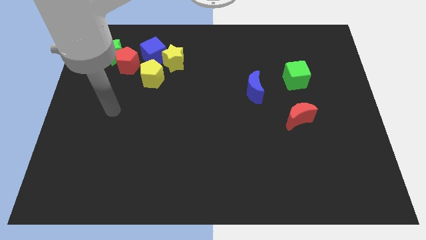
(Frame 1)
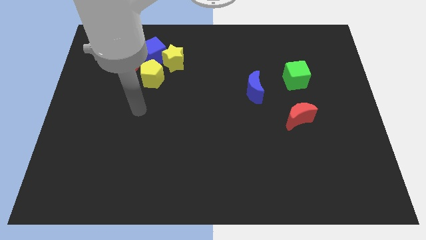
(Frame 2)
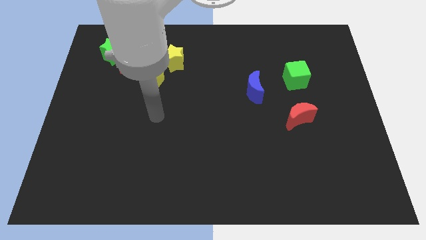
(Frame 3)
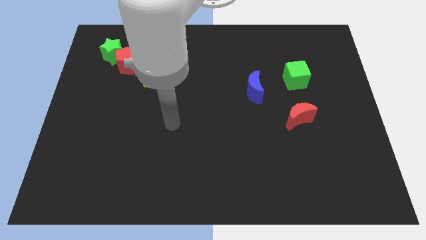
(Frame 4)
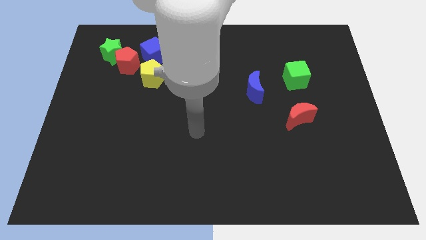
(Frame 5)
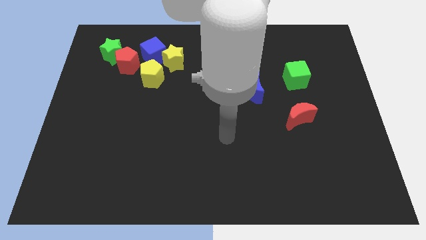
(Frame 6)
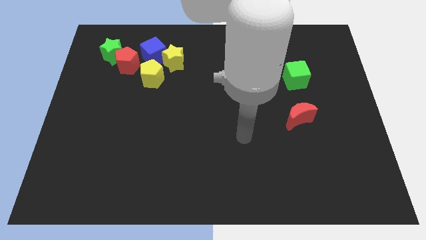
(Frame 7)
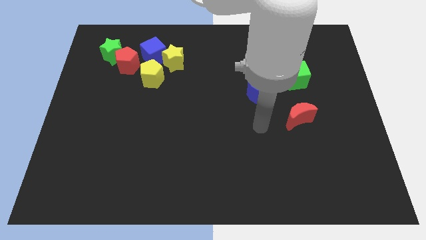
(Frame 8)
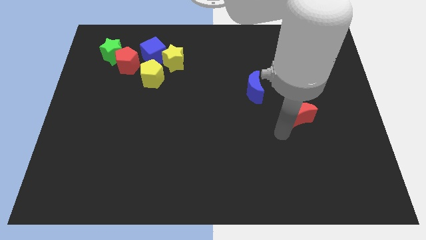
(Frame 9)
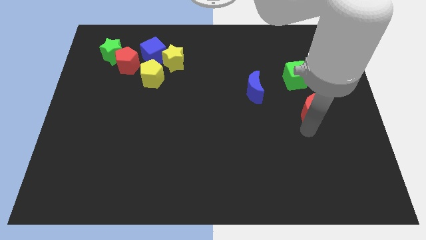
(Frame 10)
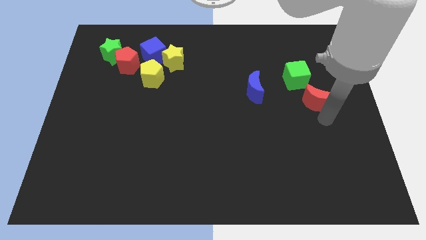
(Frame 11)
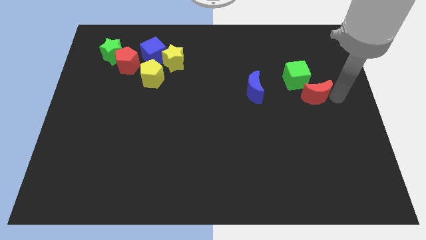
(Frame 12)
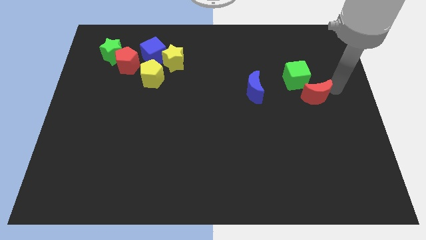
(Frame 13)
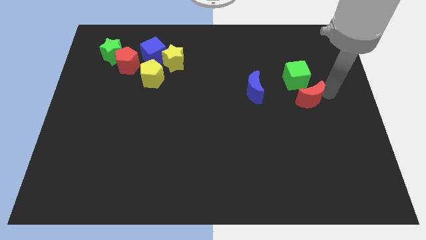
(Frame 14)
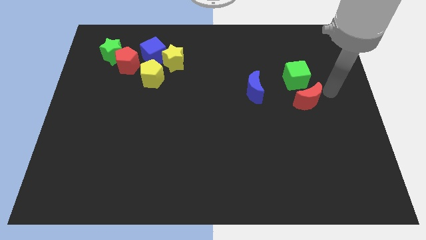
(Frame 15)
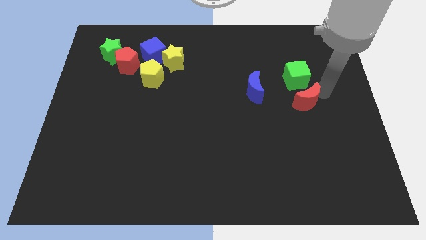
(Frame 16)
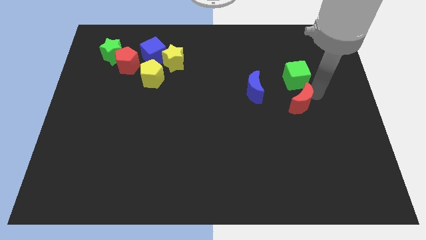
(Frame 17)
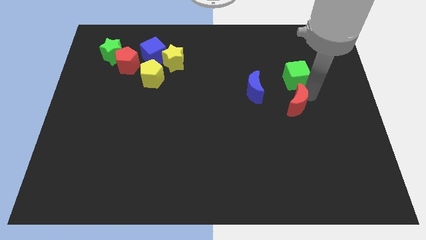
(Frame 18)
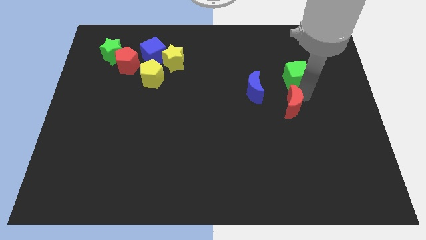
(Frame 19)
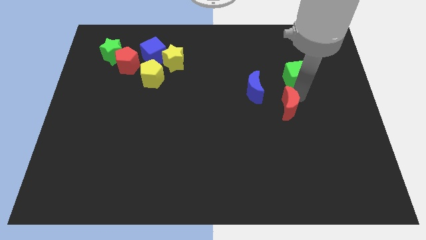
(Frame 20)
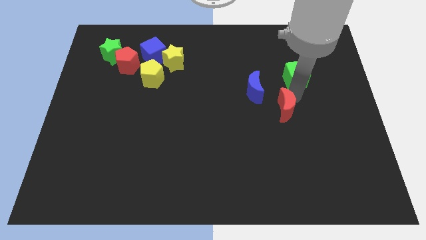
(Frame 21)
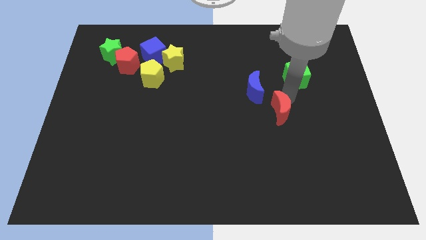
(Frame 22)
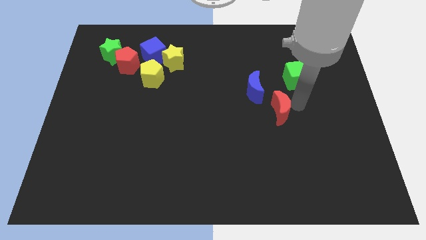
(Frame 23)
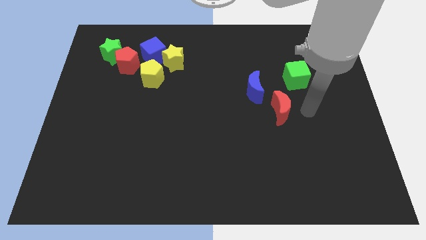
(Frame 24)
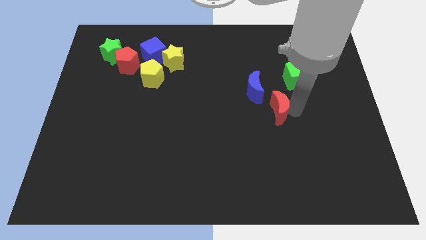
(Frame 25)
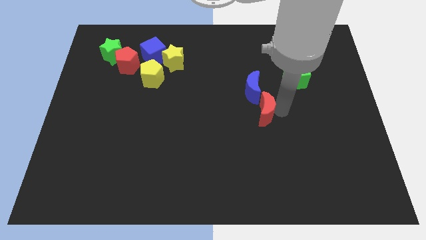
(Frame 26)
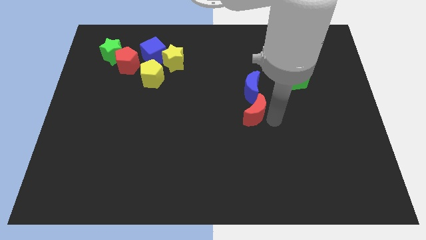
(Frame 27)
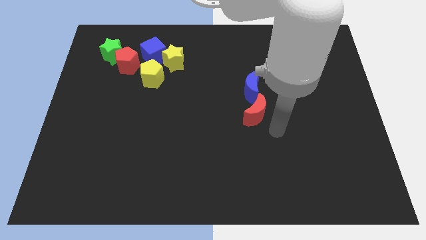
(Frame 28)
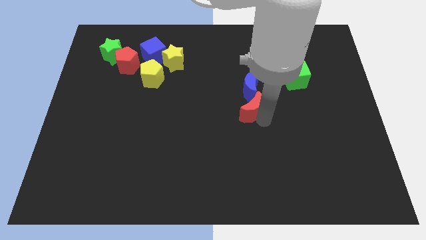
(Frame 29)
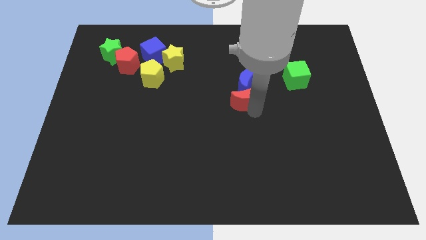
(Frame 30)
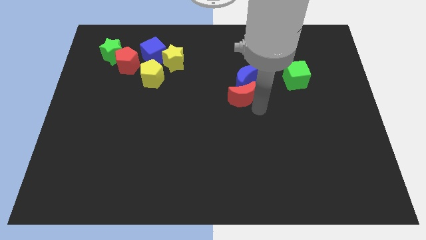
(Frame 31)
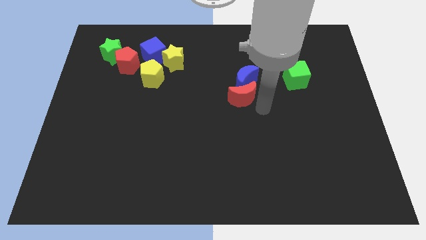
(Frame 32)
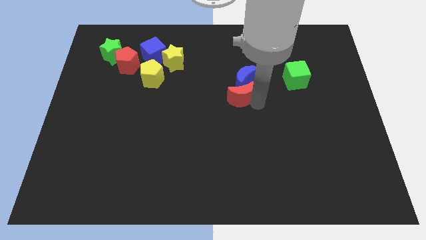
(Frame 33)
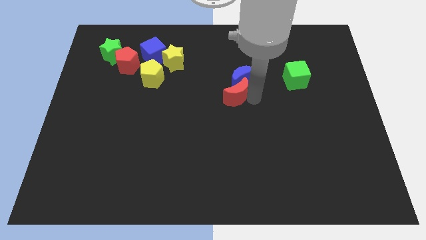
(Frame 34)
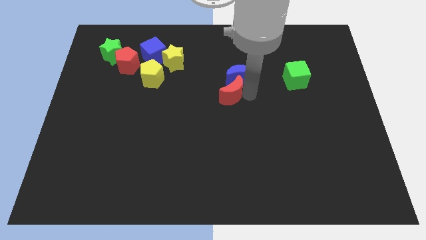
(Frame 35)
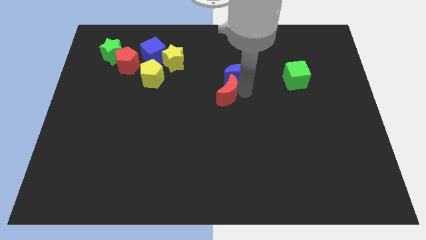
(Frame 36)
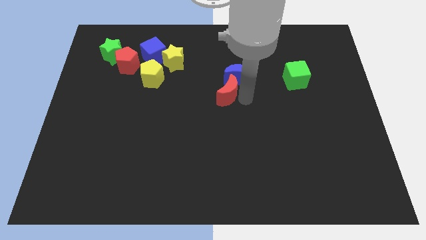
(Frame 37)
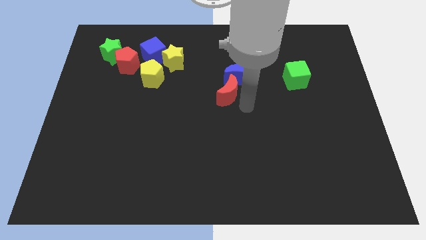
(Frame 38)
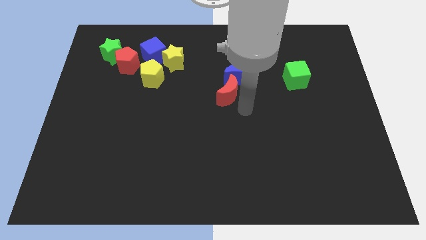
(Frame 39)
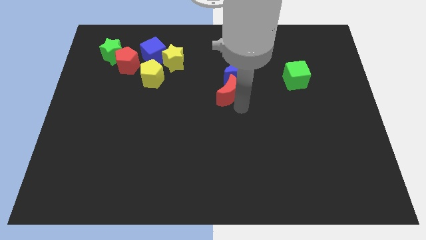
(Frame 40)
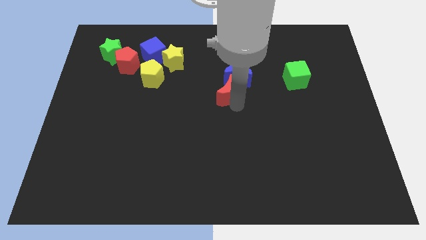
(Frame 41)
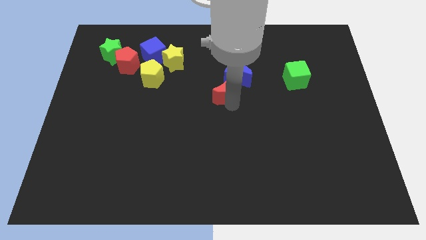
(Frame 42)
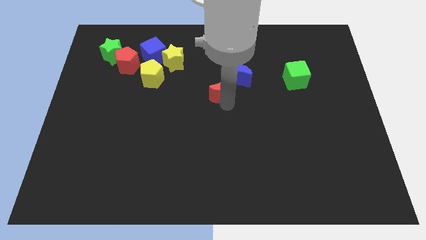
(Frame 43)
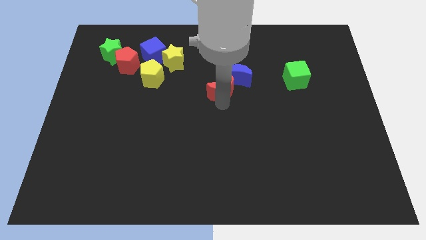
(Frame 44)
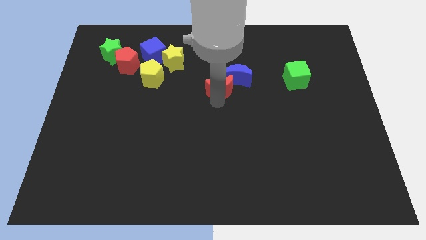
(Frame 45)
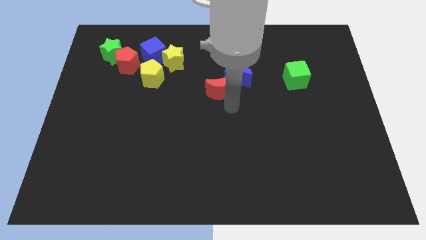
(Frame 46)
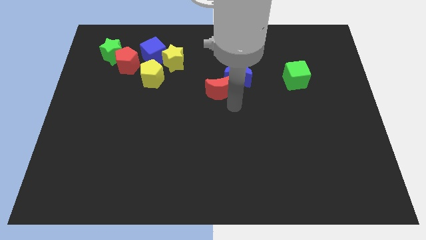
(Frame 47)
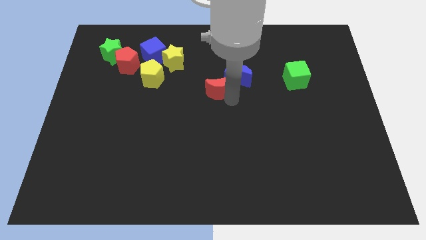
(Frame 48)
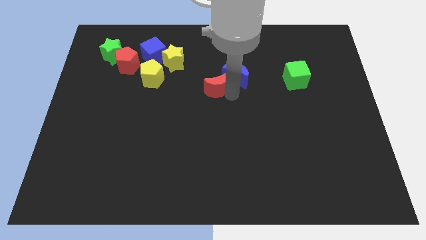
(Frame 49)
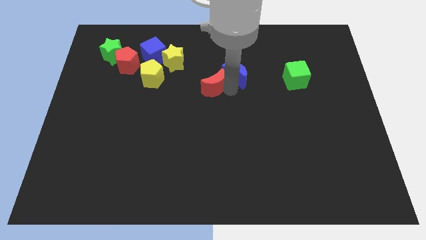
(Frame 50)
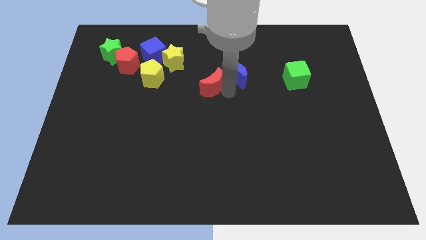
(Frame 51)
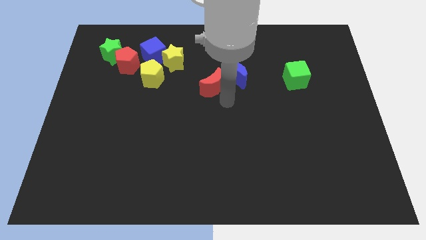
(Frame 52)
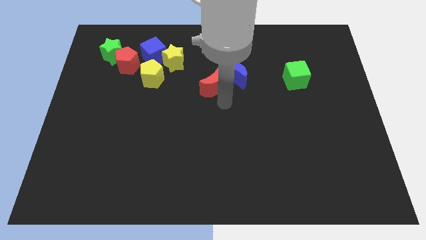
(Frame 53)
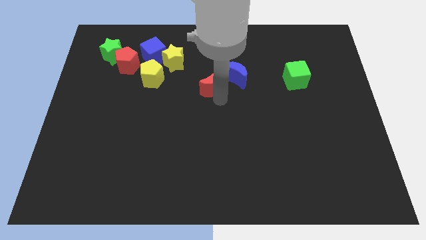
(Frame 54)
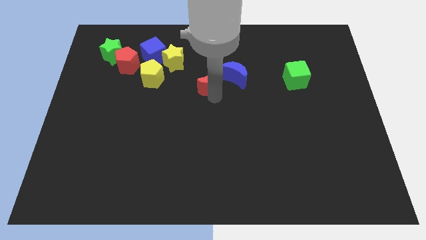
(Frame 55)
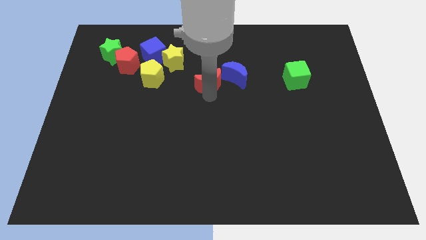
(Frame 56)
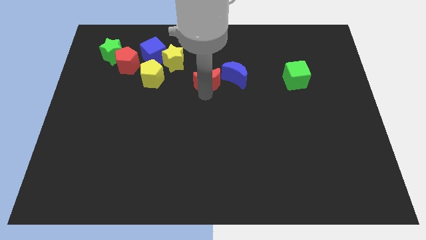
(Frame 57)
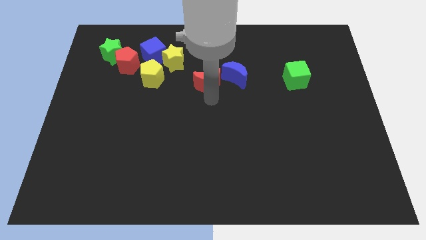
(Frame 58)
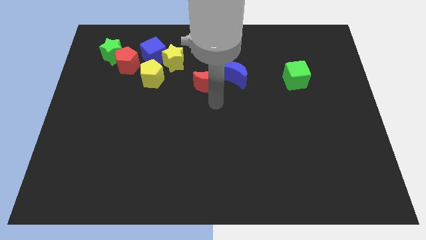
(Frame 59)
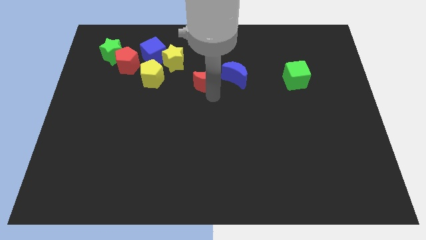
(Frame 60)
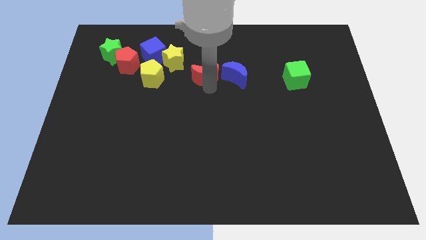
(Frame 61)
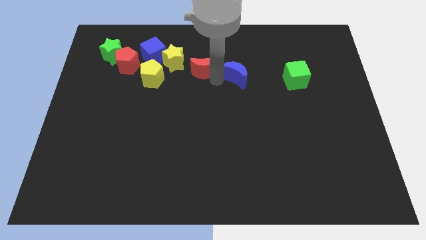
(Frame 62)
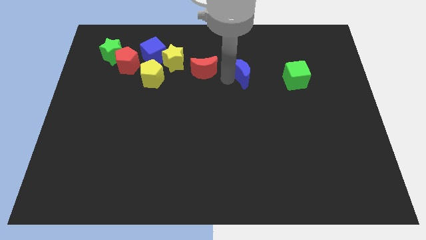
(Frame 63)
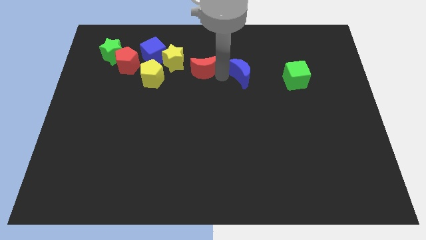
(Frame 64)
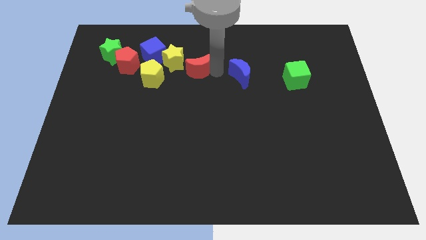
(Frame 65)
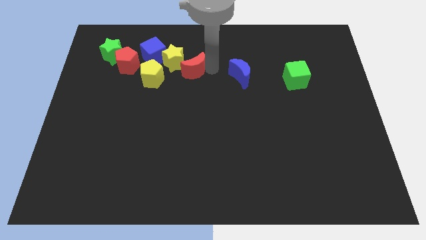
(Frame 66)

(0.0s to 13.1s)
put the red moon next to the yellow star
